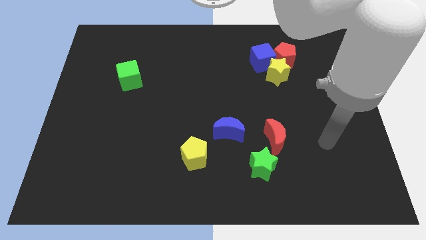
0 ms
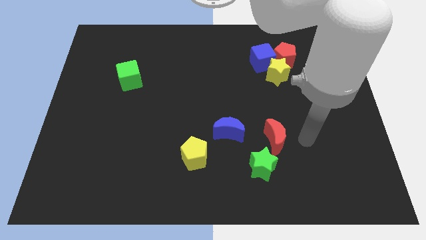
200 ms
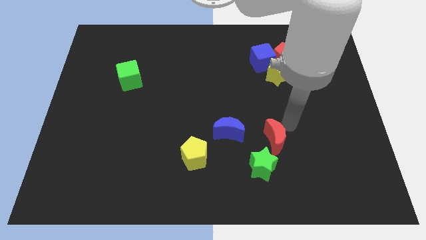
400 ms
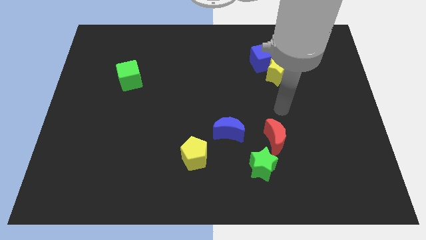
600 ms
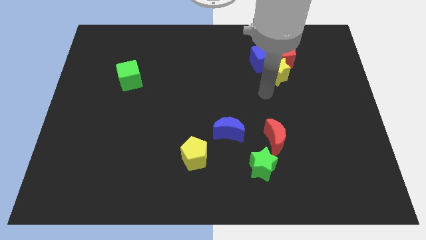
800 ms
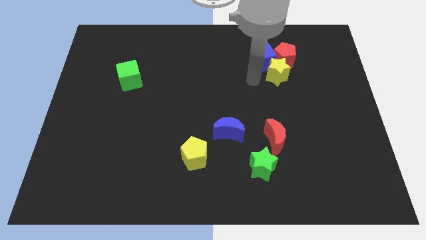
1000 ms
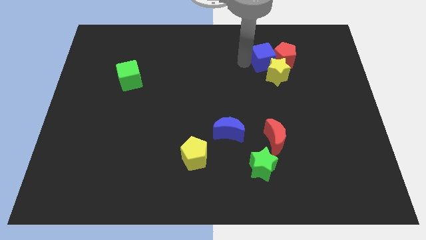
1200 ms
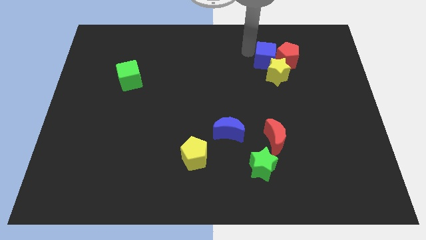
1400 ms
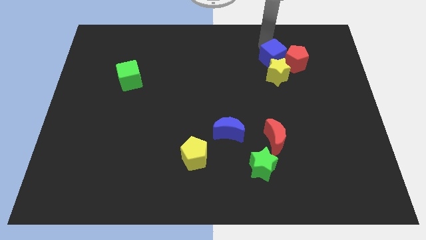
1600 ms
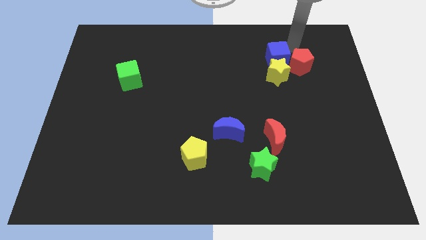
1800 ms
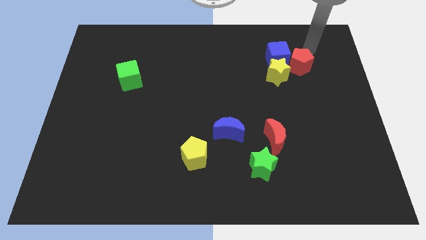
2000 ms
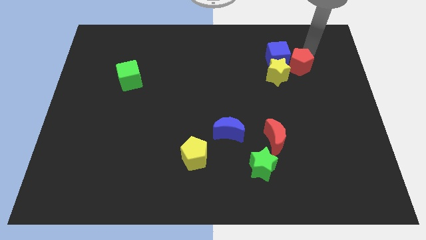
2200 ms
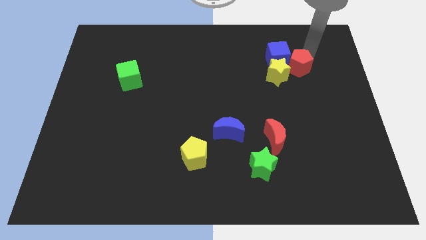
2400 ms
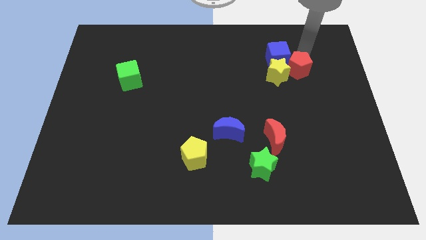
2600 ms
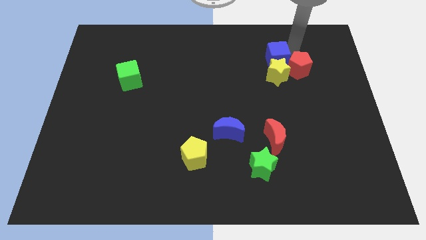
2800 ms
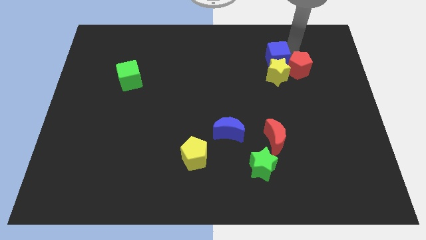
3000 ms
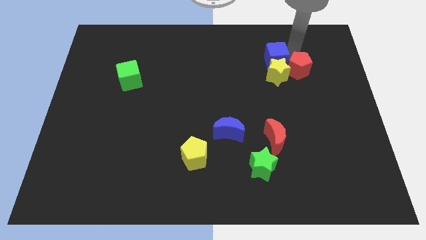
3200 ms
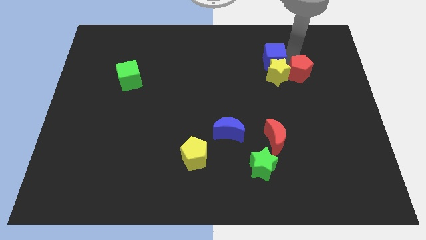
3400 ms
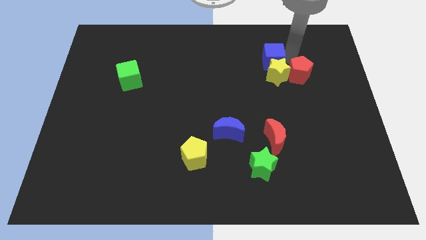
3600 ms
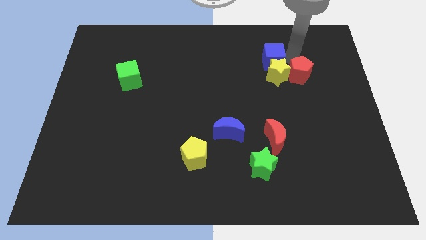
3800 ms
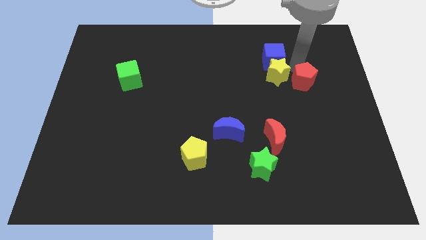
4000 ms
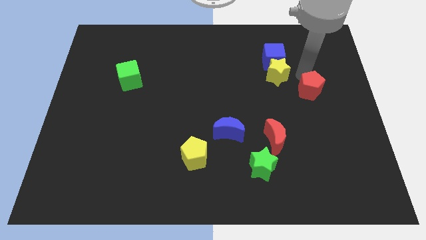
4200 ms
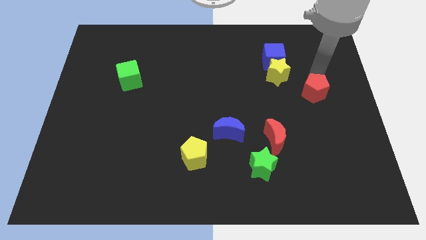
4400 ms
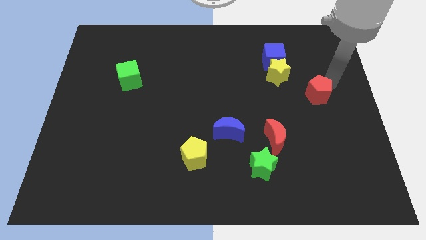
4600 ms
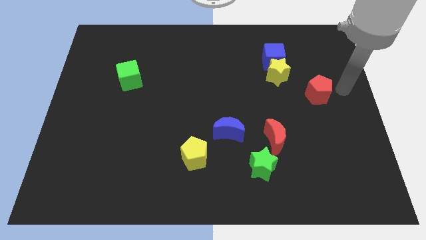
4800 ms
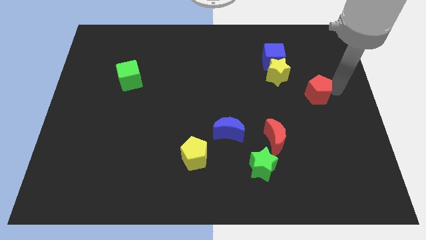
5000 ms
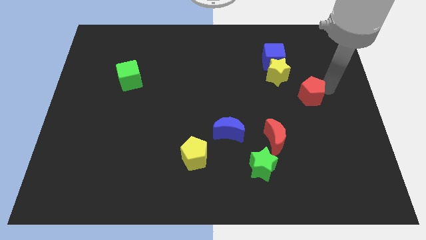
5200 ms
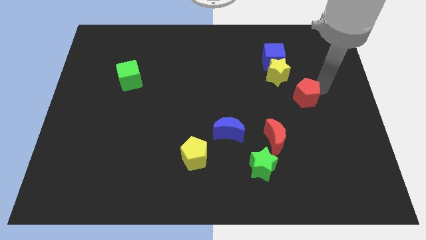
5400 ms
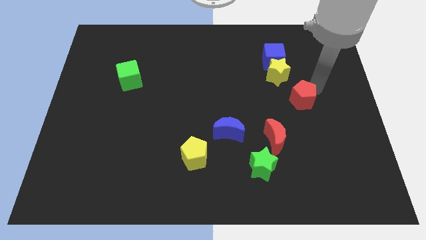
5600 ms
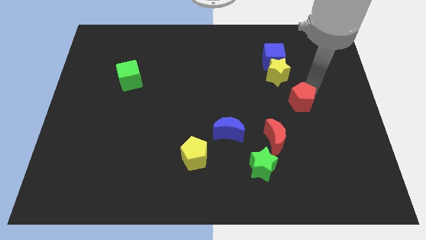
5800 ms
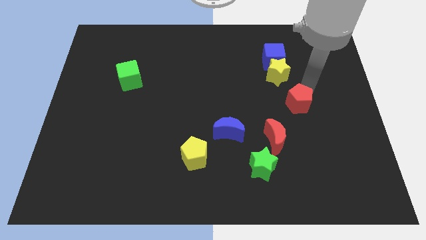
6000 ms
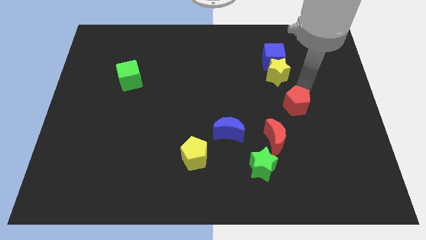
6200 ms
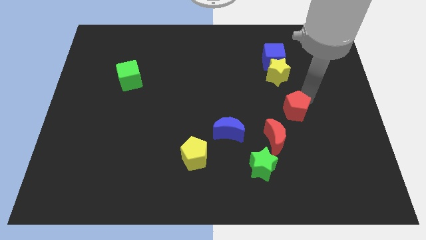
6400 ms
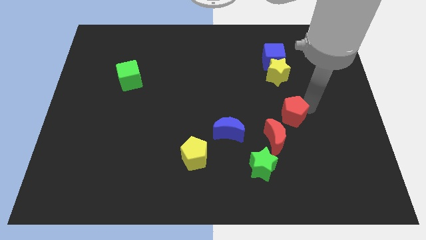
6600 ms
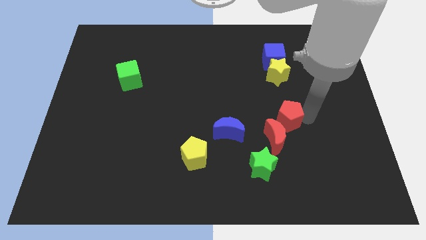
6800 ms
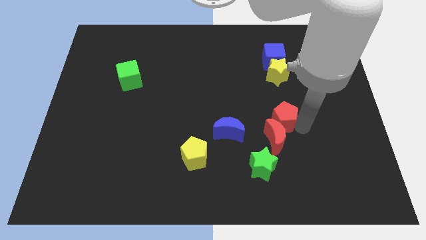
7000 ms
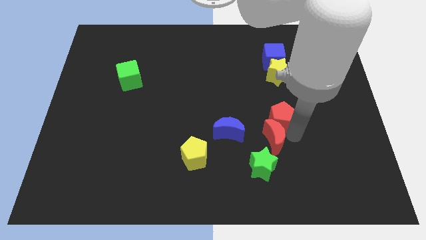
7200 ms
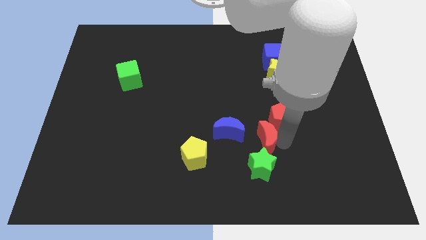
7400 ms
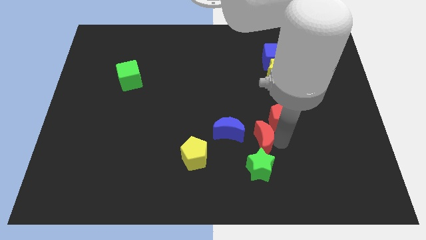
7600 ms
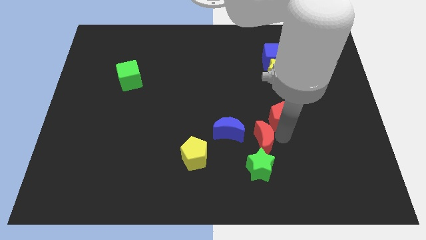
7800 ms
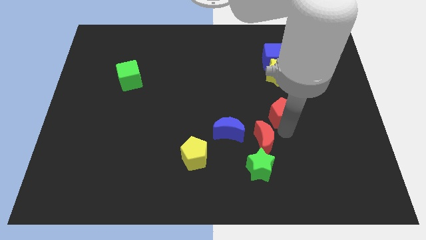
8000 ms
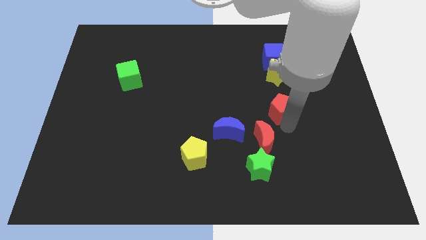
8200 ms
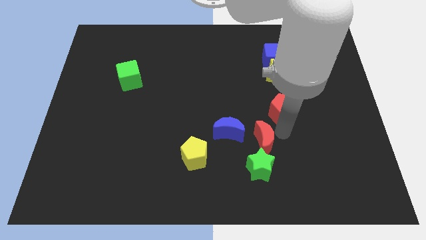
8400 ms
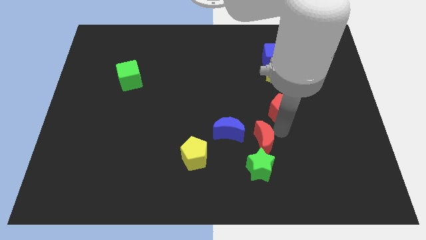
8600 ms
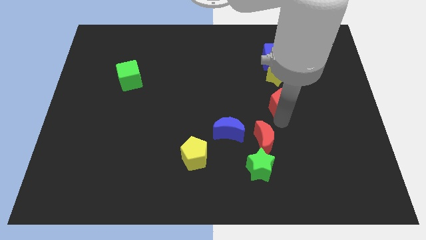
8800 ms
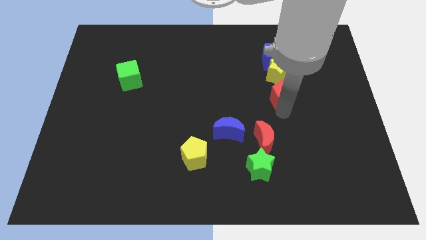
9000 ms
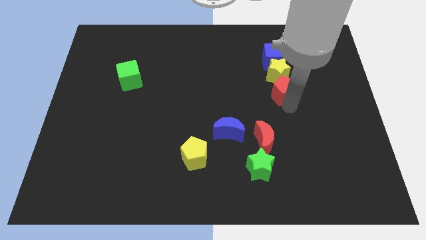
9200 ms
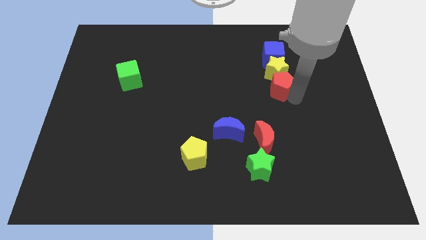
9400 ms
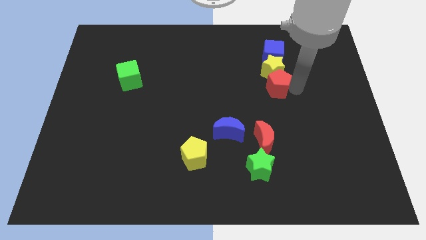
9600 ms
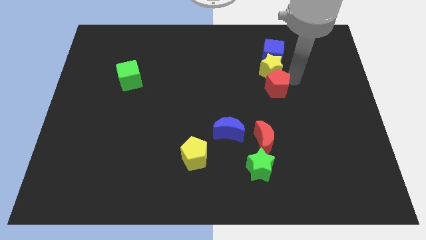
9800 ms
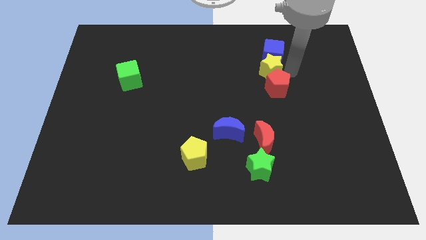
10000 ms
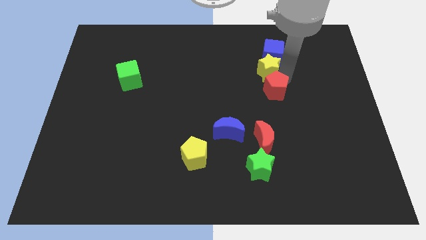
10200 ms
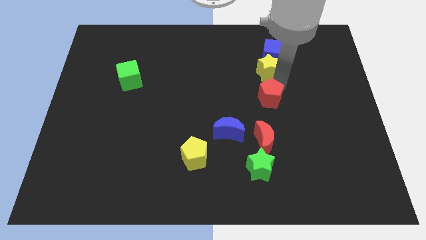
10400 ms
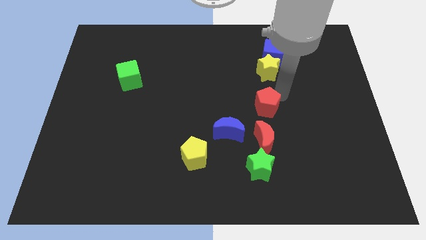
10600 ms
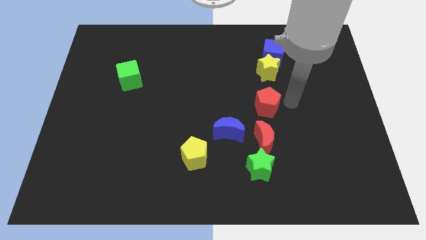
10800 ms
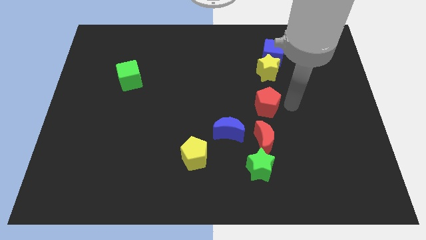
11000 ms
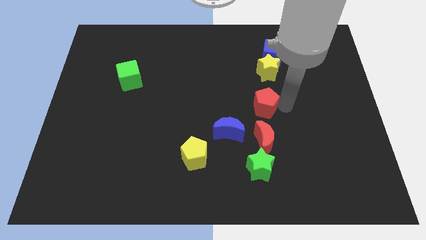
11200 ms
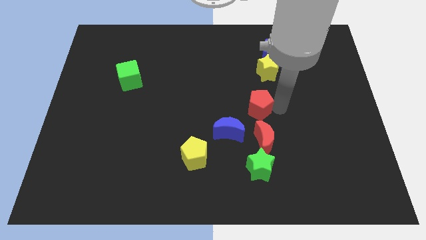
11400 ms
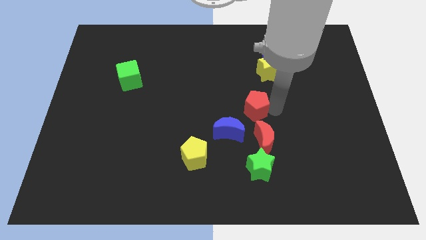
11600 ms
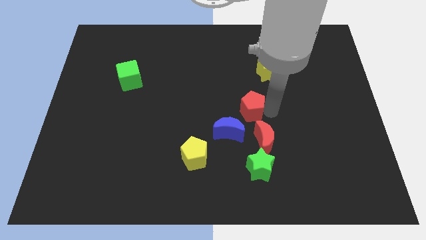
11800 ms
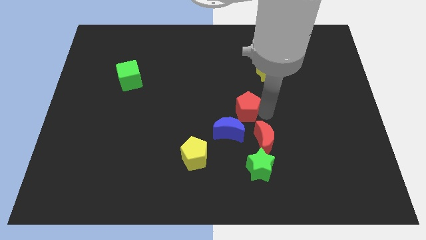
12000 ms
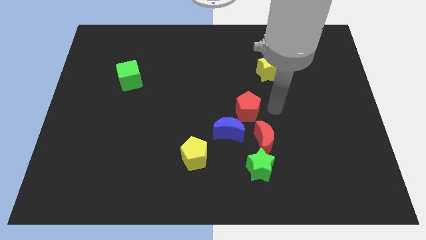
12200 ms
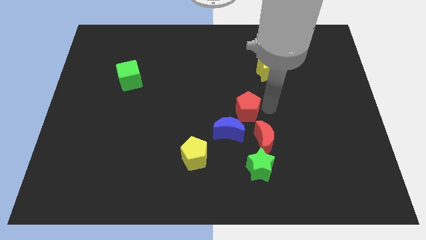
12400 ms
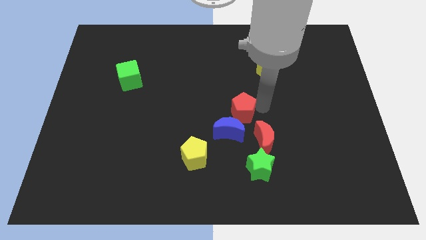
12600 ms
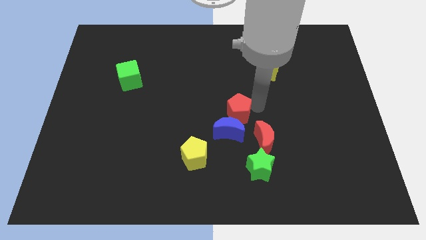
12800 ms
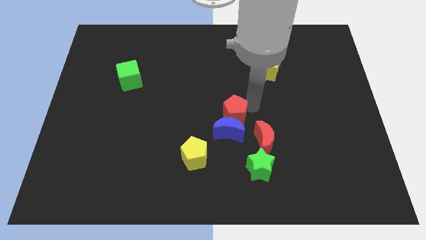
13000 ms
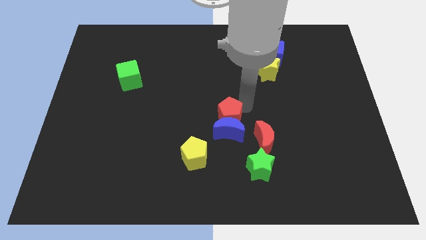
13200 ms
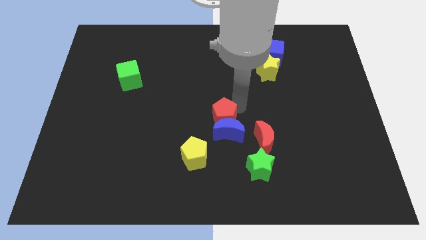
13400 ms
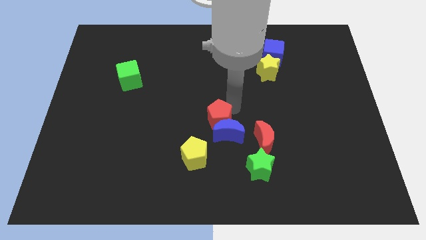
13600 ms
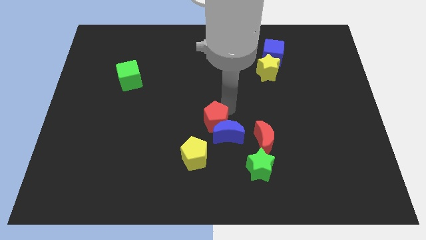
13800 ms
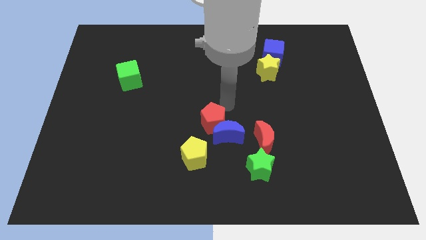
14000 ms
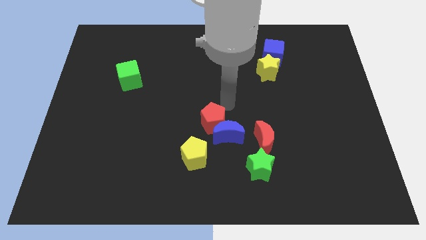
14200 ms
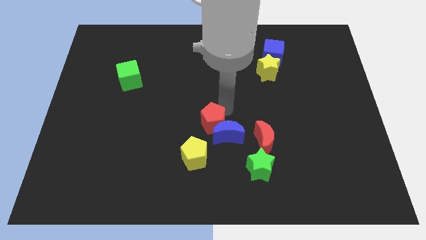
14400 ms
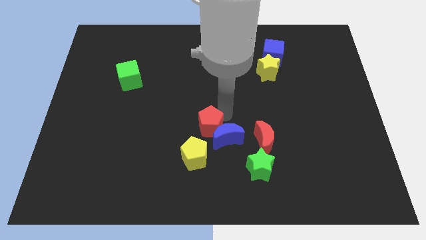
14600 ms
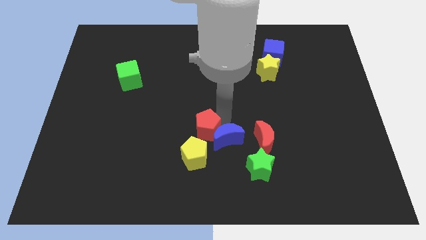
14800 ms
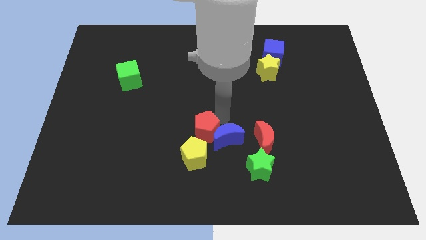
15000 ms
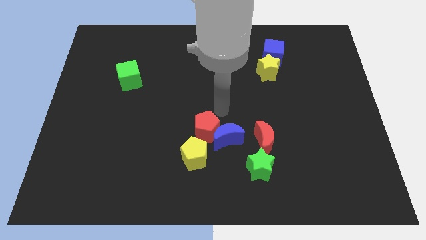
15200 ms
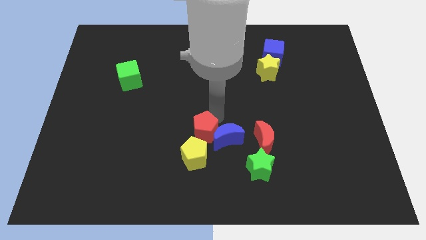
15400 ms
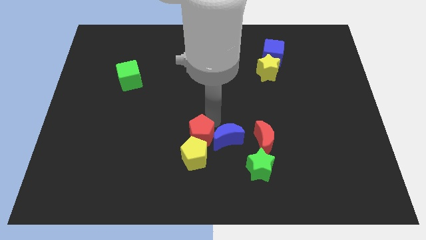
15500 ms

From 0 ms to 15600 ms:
put the red pentagon close to the yellow pentagon
